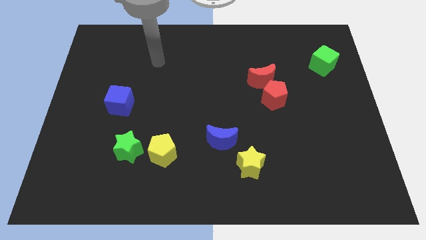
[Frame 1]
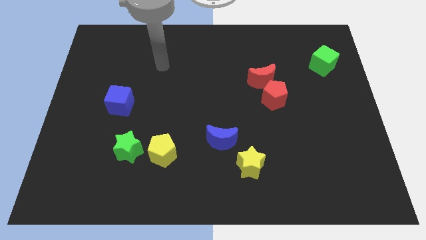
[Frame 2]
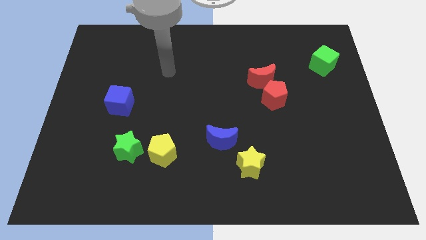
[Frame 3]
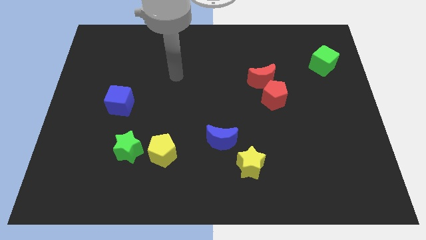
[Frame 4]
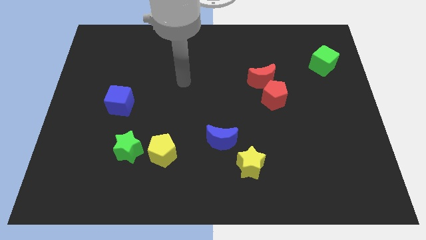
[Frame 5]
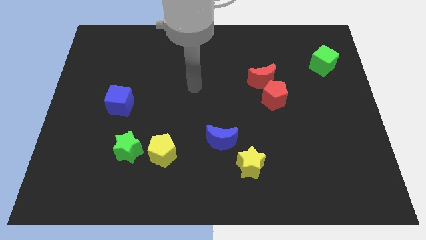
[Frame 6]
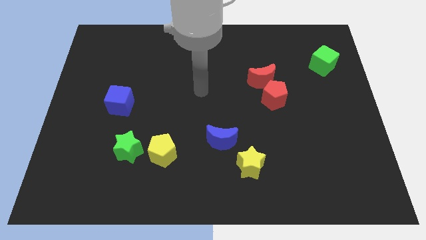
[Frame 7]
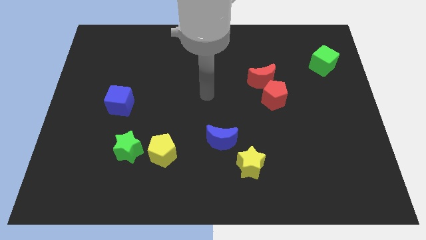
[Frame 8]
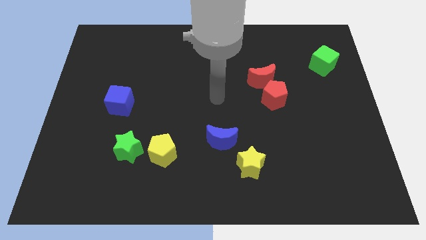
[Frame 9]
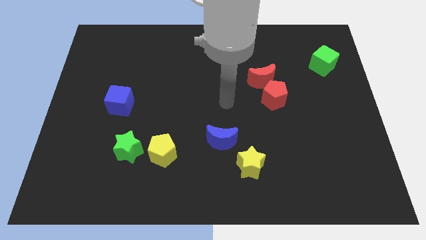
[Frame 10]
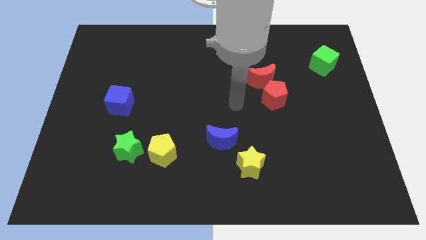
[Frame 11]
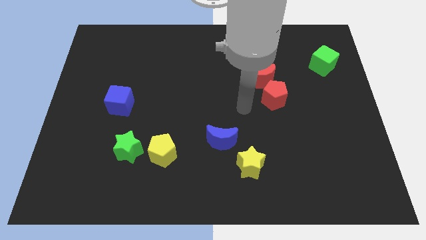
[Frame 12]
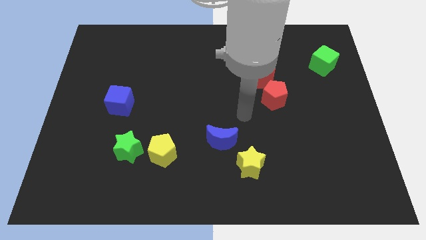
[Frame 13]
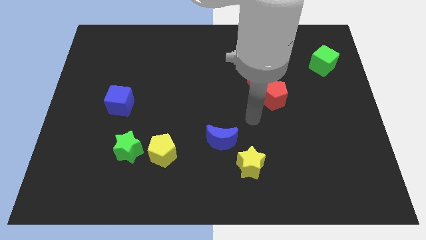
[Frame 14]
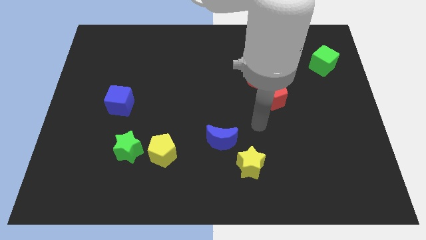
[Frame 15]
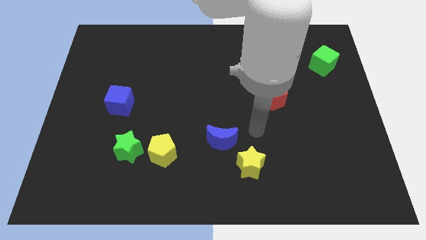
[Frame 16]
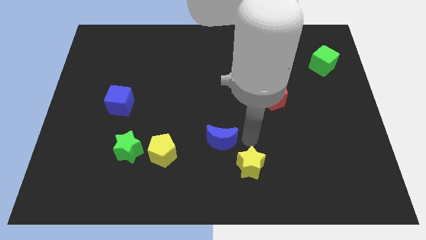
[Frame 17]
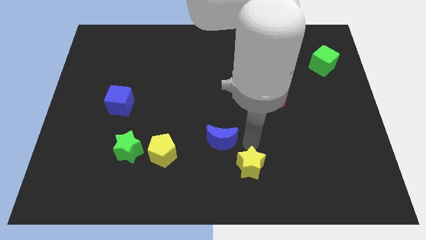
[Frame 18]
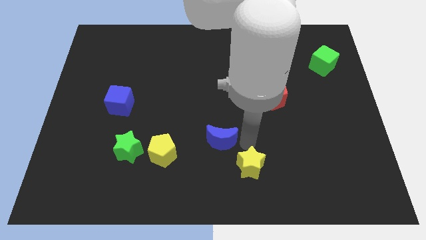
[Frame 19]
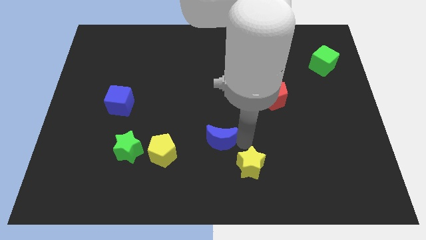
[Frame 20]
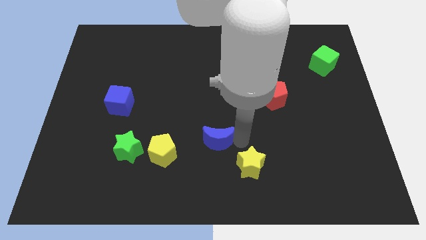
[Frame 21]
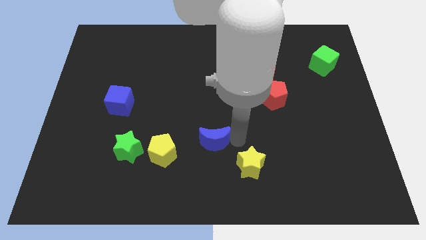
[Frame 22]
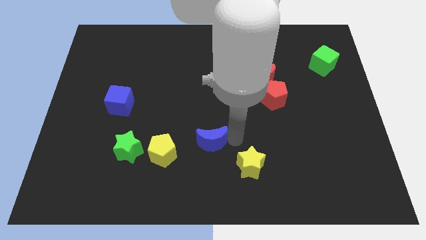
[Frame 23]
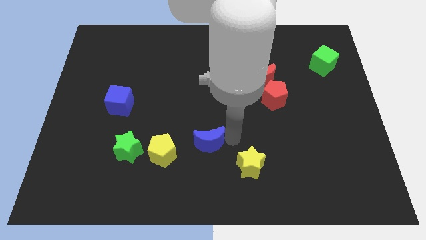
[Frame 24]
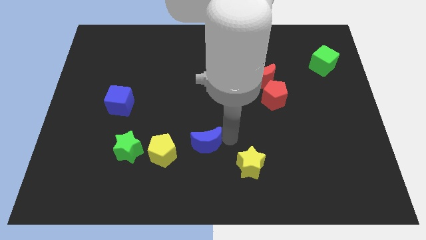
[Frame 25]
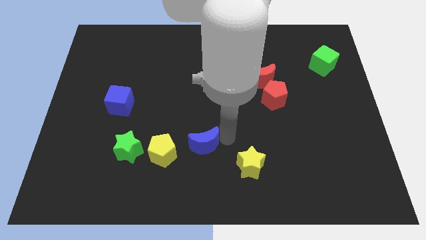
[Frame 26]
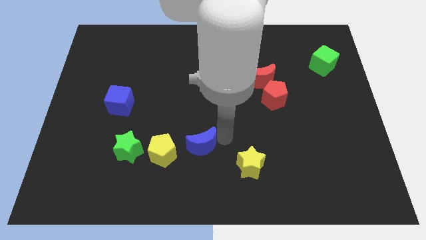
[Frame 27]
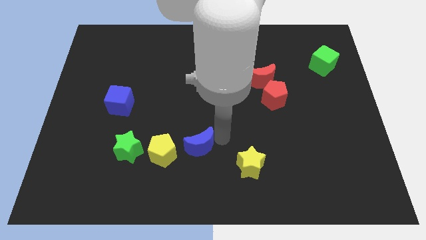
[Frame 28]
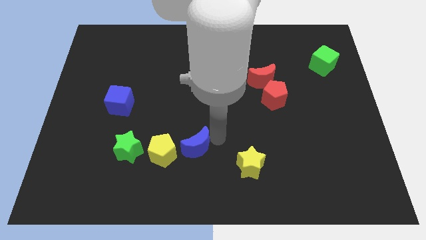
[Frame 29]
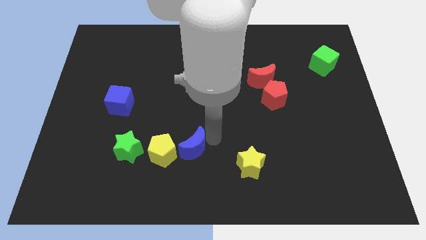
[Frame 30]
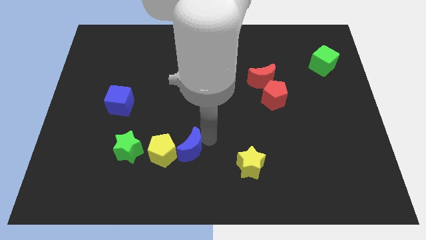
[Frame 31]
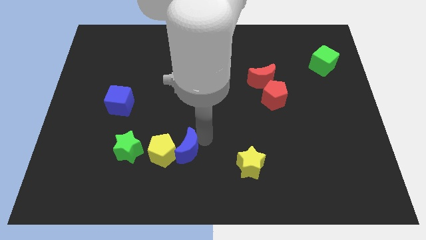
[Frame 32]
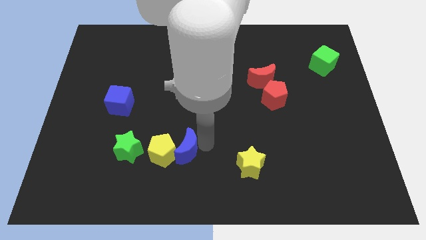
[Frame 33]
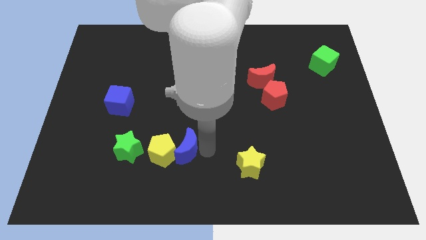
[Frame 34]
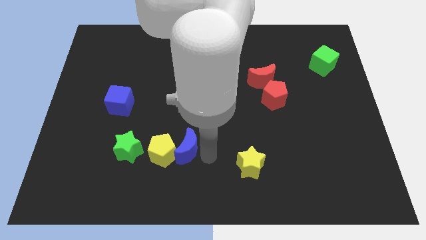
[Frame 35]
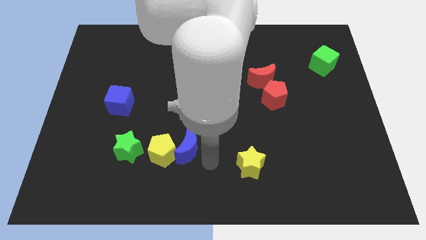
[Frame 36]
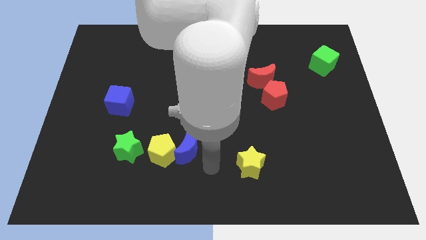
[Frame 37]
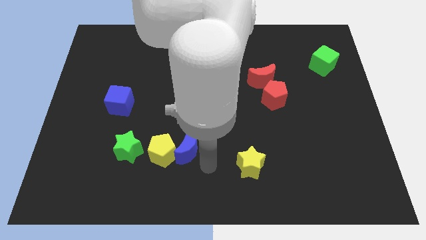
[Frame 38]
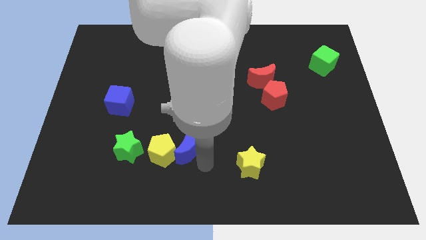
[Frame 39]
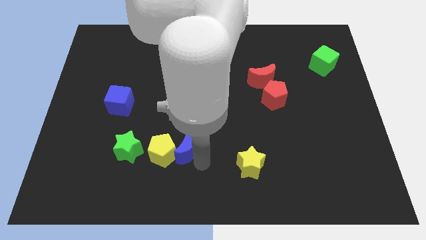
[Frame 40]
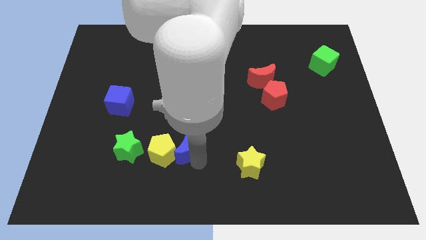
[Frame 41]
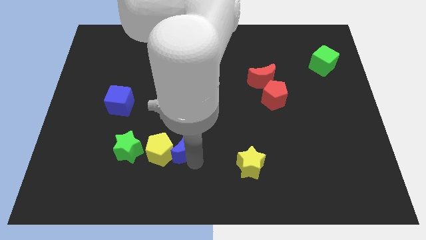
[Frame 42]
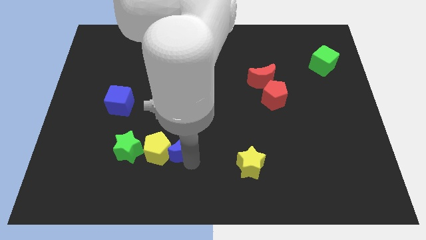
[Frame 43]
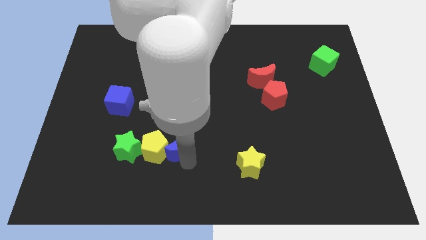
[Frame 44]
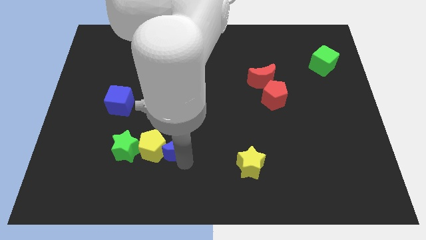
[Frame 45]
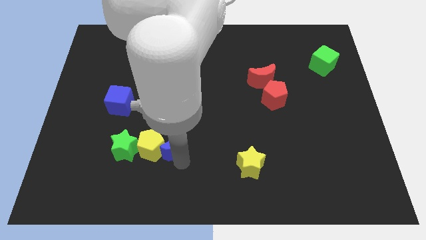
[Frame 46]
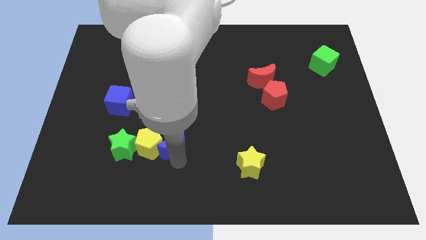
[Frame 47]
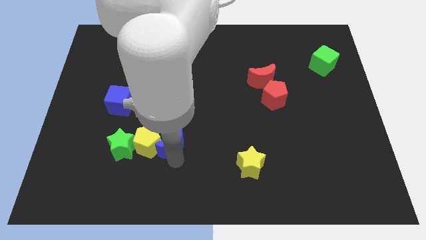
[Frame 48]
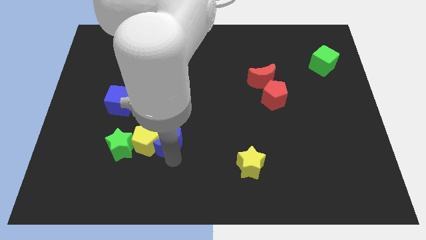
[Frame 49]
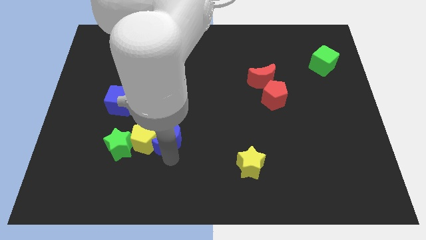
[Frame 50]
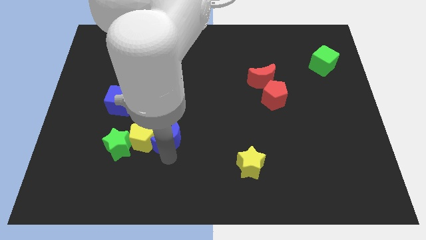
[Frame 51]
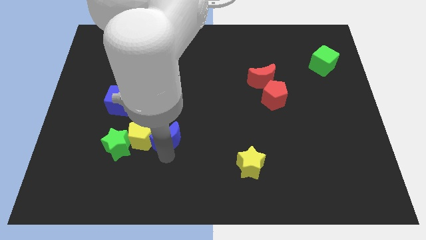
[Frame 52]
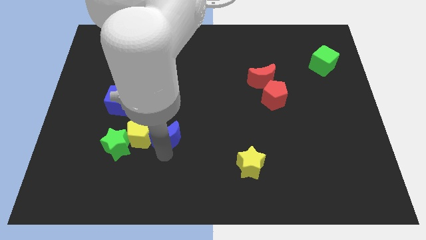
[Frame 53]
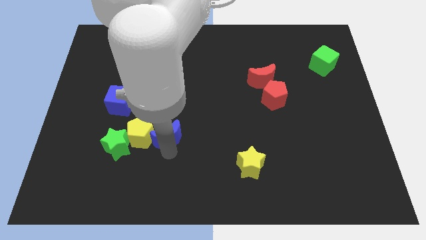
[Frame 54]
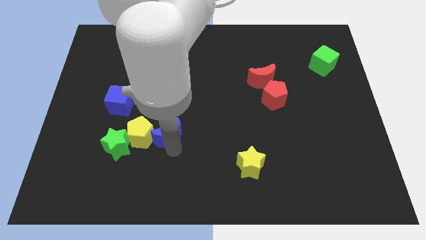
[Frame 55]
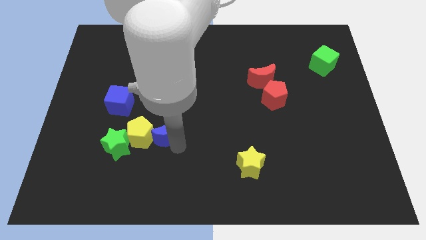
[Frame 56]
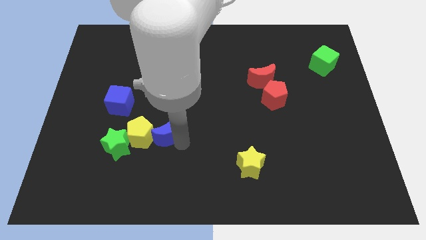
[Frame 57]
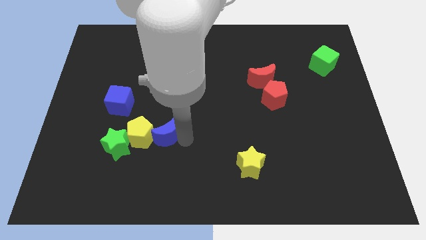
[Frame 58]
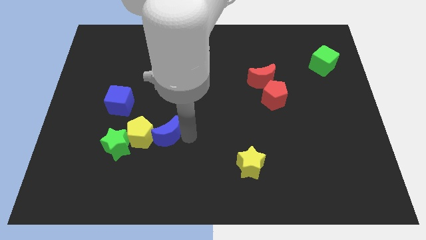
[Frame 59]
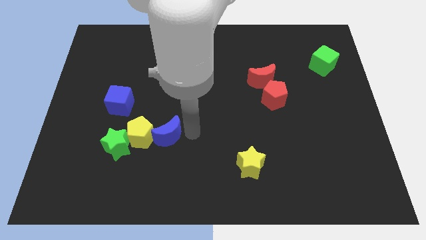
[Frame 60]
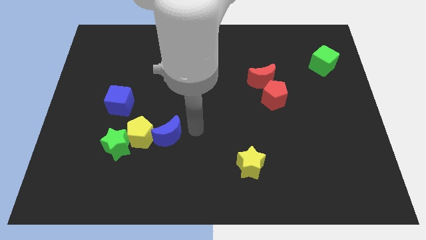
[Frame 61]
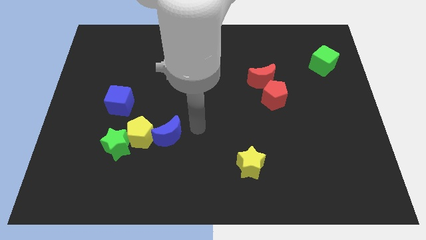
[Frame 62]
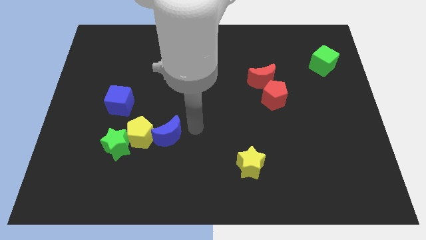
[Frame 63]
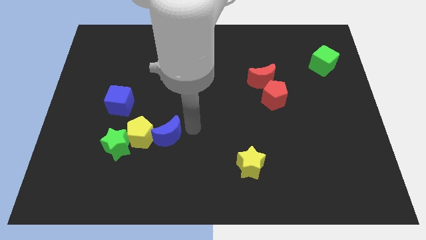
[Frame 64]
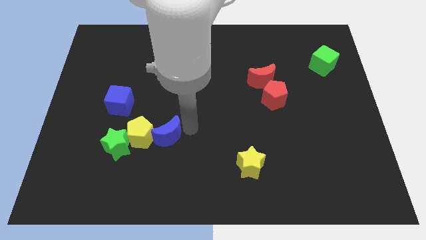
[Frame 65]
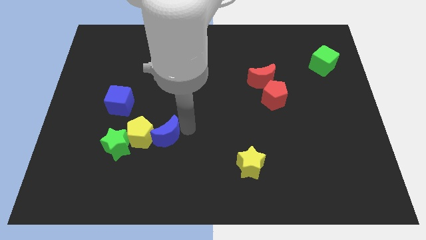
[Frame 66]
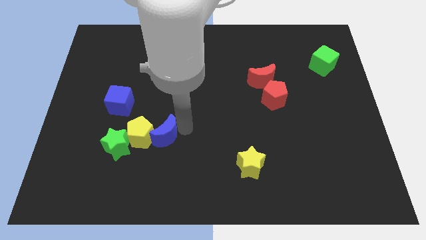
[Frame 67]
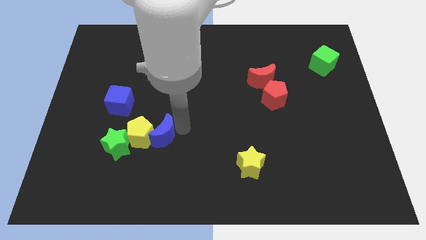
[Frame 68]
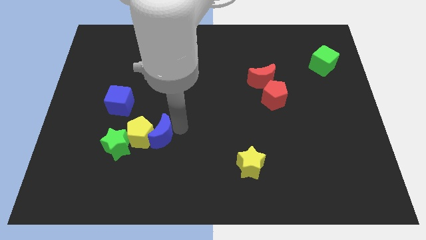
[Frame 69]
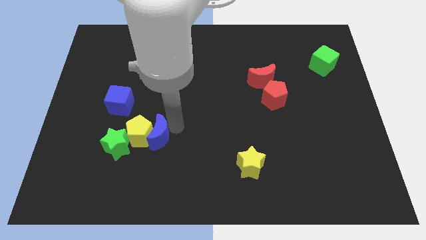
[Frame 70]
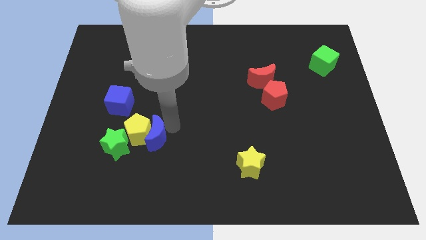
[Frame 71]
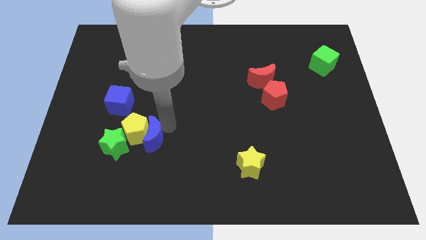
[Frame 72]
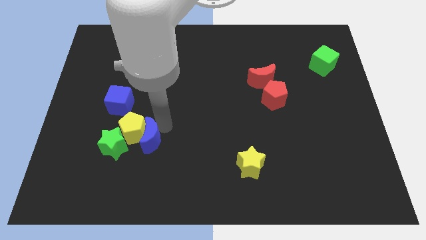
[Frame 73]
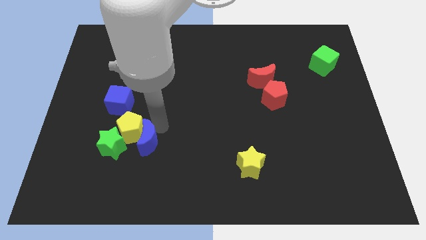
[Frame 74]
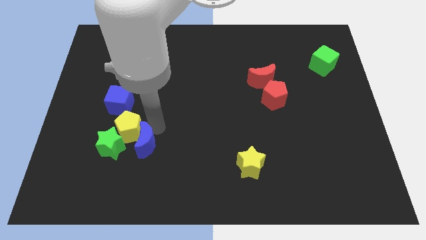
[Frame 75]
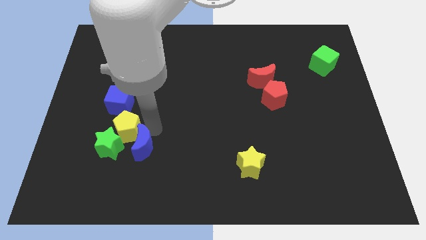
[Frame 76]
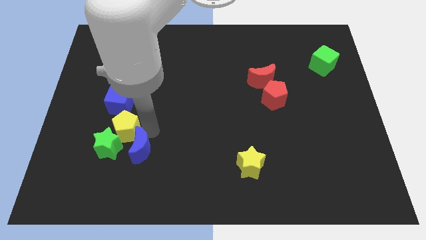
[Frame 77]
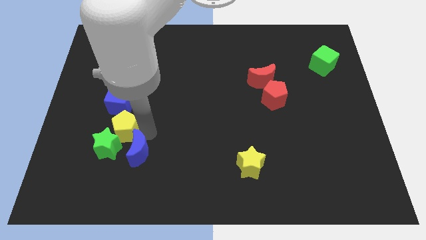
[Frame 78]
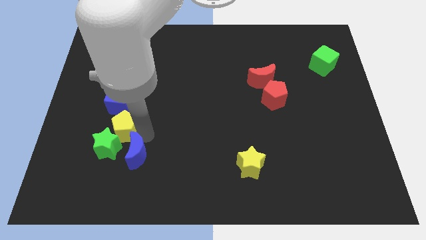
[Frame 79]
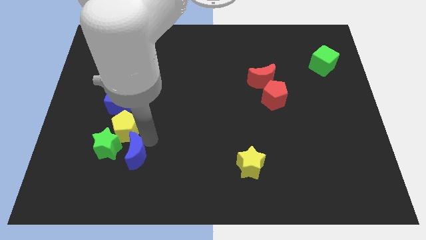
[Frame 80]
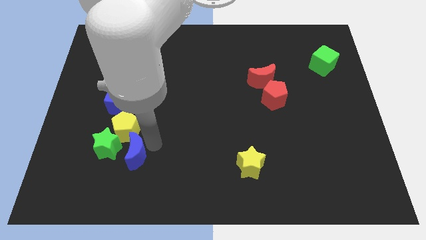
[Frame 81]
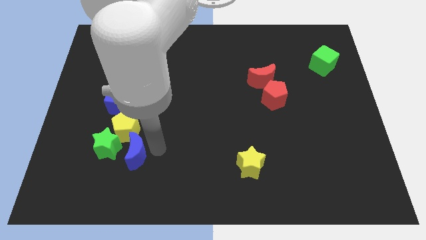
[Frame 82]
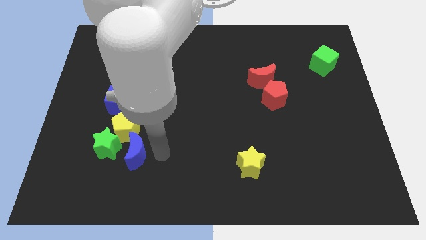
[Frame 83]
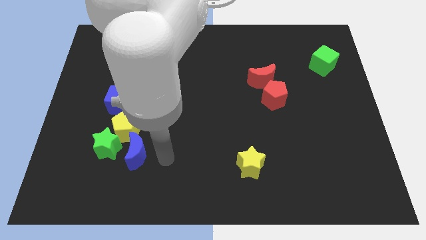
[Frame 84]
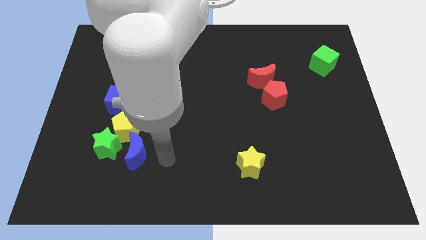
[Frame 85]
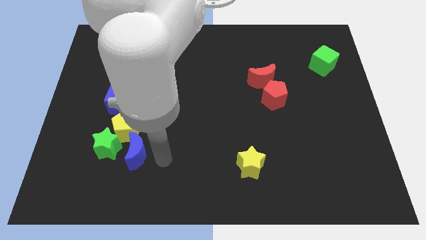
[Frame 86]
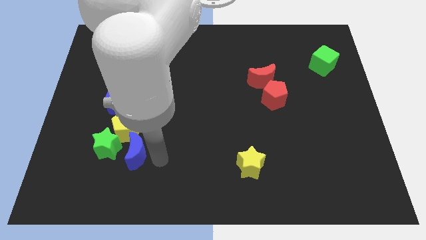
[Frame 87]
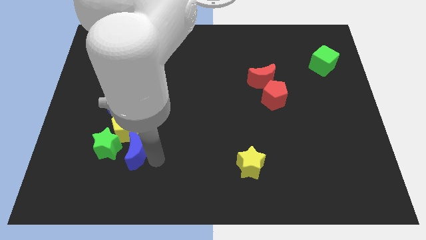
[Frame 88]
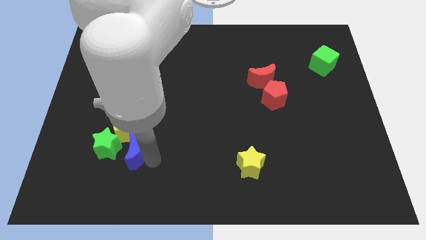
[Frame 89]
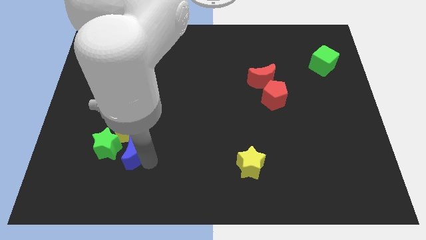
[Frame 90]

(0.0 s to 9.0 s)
slide the blue moon close to the green star
